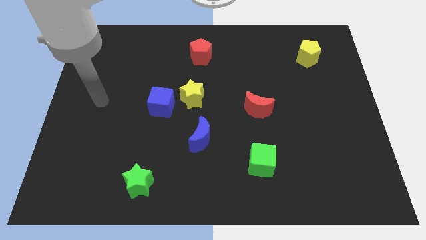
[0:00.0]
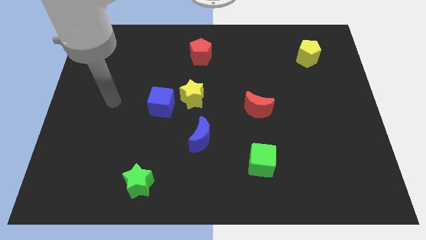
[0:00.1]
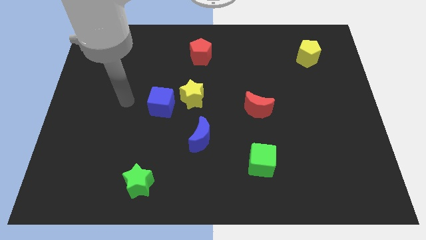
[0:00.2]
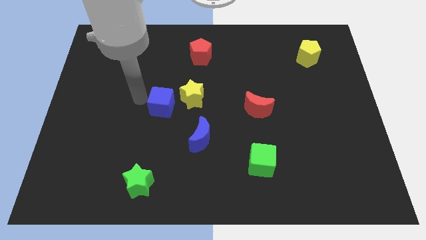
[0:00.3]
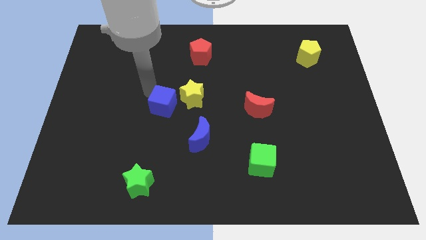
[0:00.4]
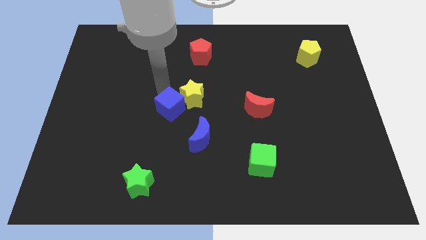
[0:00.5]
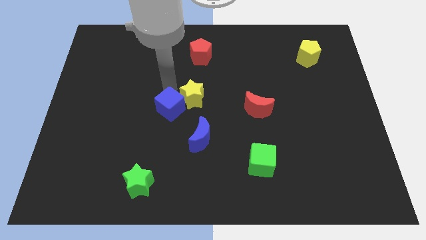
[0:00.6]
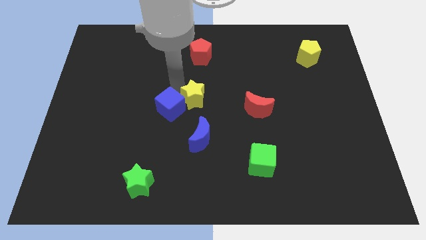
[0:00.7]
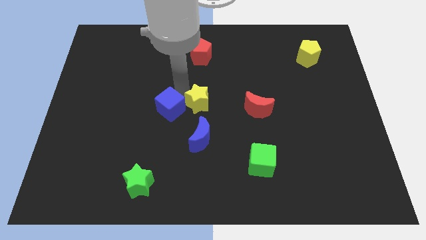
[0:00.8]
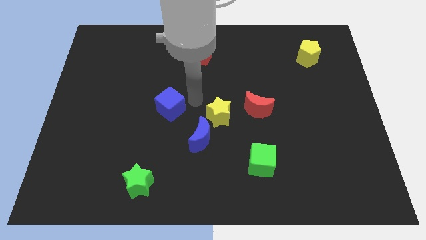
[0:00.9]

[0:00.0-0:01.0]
move the blue cube away from the yellow star

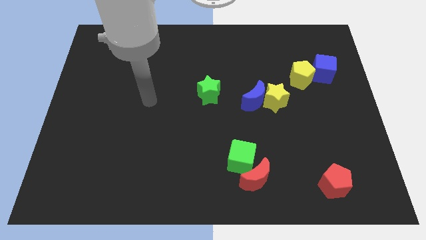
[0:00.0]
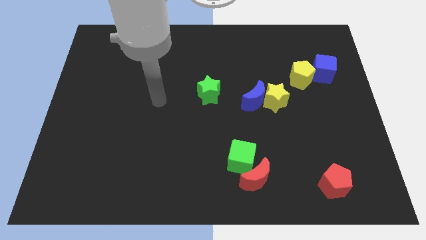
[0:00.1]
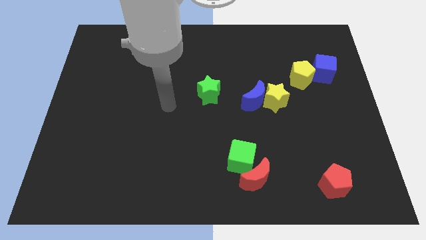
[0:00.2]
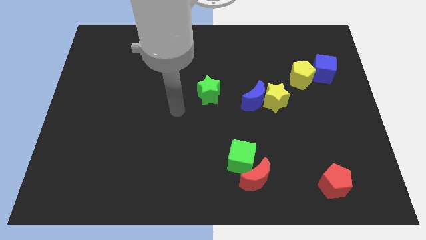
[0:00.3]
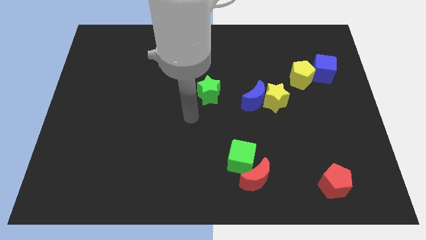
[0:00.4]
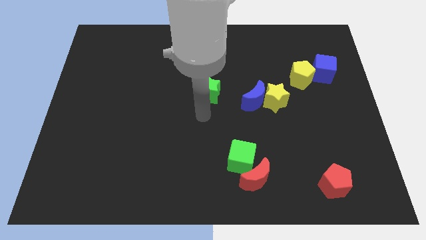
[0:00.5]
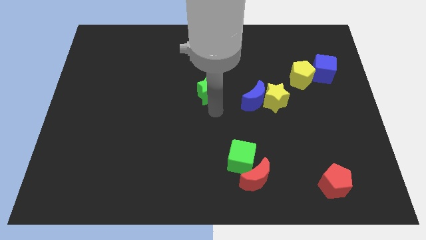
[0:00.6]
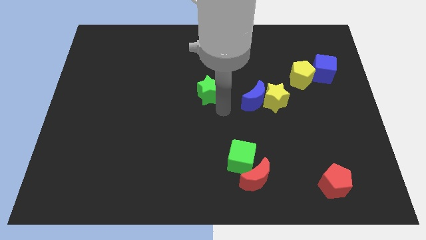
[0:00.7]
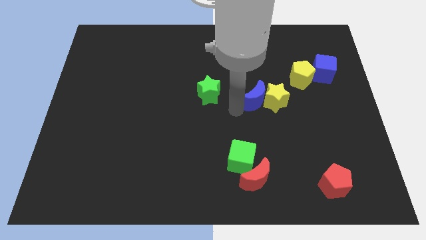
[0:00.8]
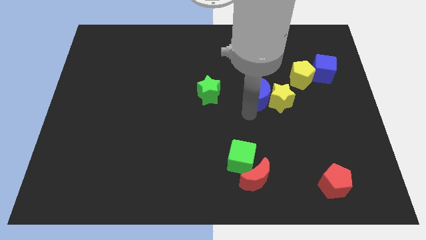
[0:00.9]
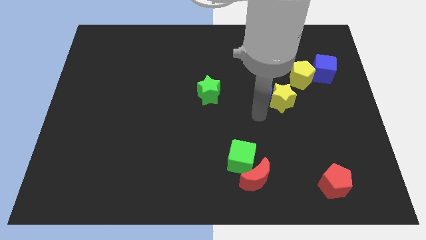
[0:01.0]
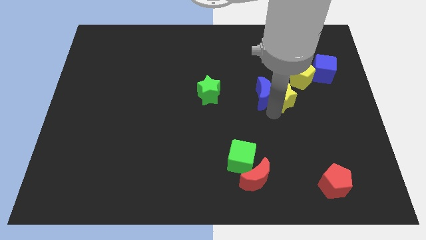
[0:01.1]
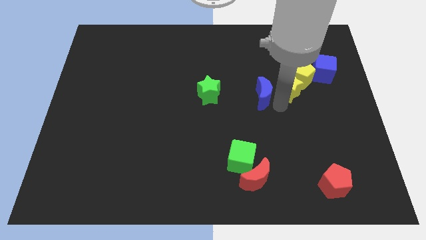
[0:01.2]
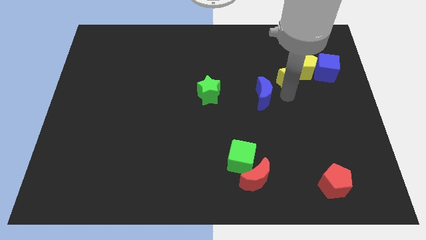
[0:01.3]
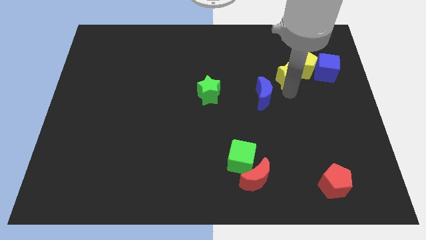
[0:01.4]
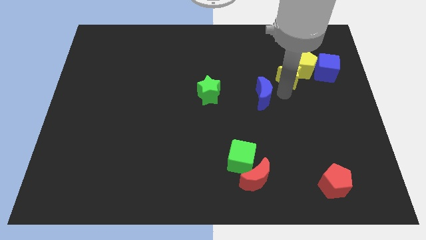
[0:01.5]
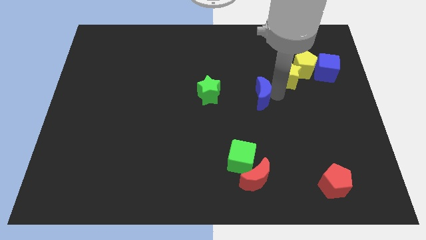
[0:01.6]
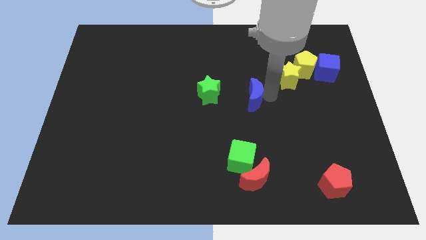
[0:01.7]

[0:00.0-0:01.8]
pull the blue moon apart from the yellow star

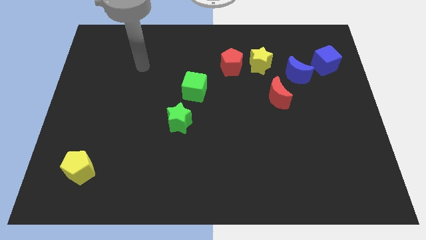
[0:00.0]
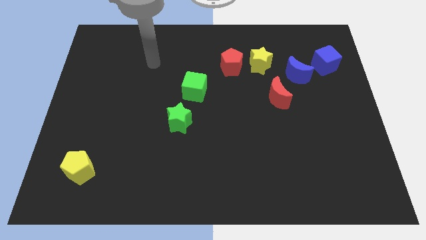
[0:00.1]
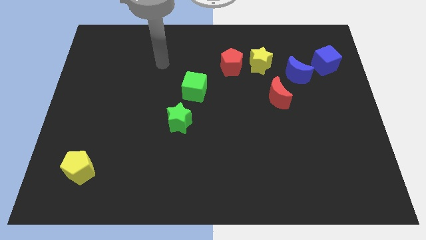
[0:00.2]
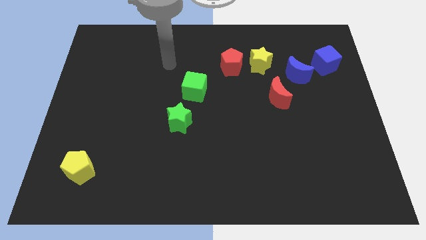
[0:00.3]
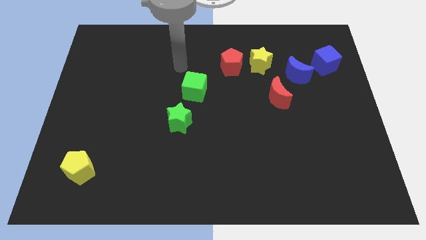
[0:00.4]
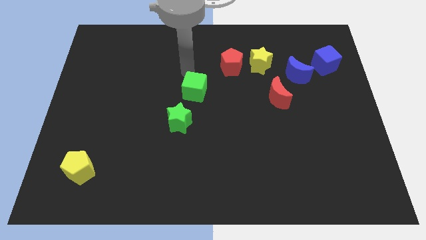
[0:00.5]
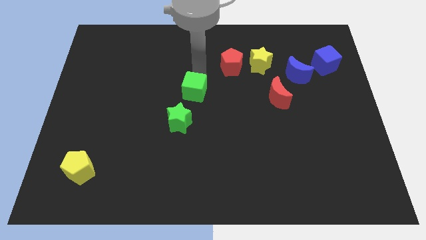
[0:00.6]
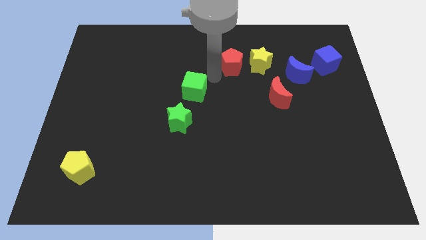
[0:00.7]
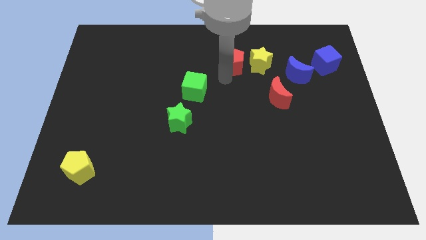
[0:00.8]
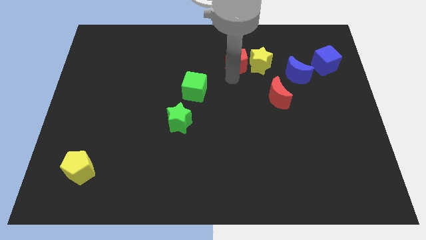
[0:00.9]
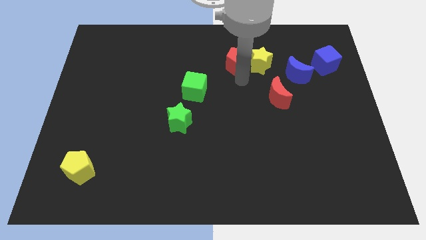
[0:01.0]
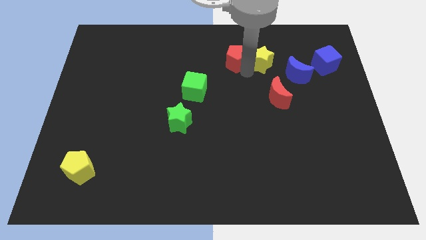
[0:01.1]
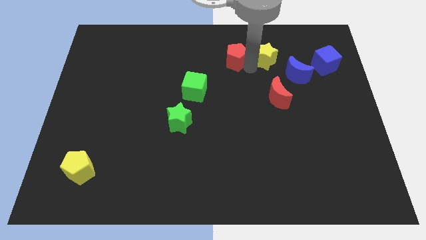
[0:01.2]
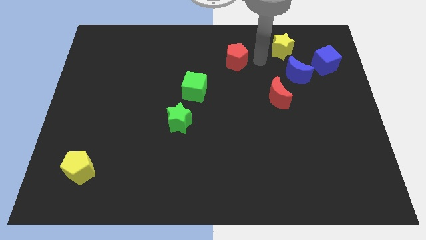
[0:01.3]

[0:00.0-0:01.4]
pull the red pentagon apart from the yellow star

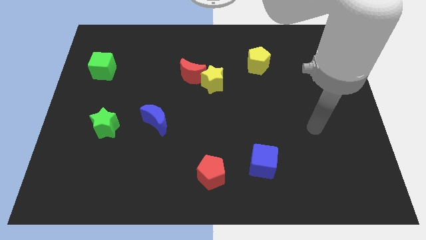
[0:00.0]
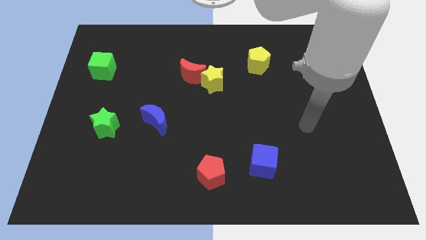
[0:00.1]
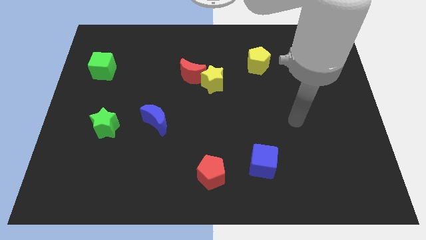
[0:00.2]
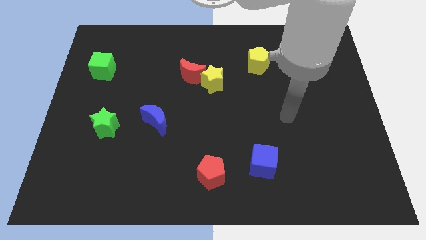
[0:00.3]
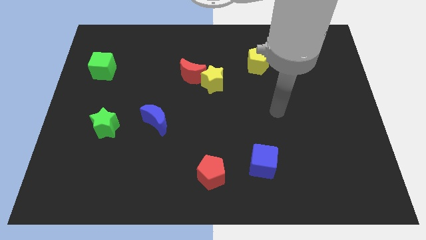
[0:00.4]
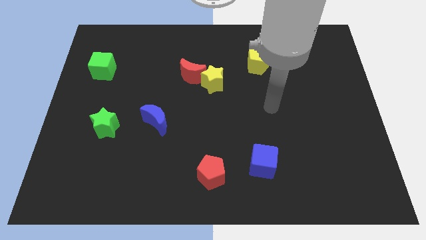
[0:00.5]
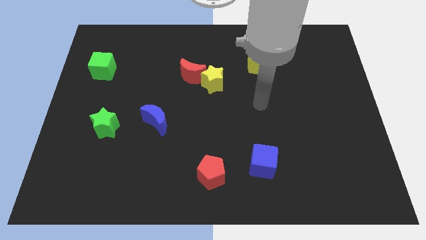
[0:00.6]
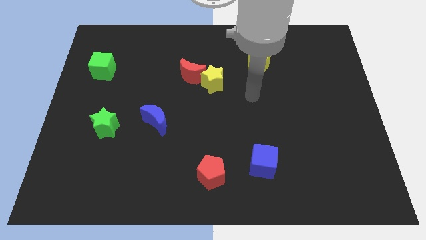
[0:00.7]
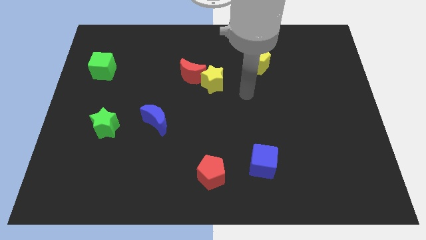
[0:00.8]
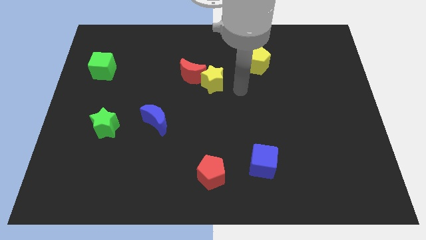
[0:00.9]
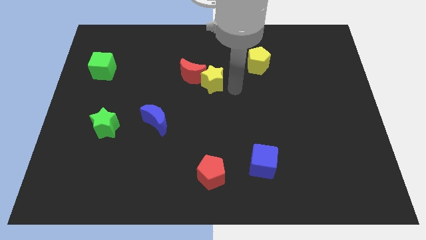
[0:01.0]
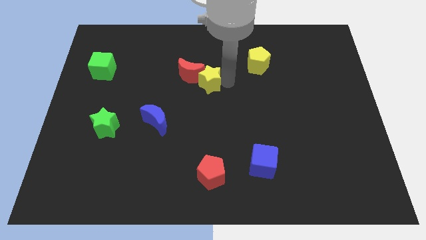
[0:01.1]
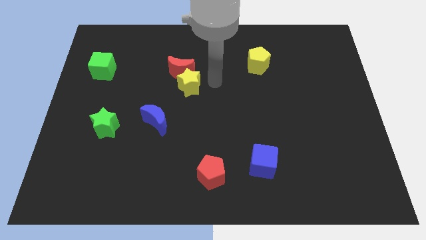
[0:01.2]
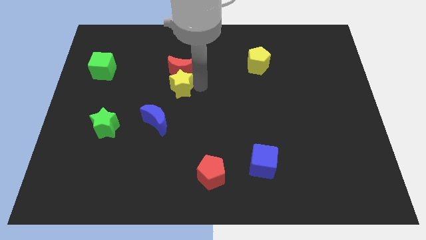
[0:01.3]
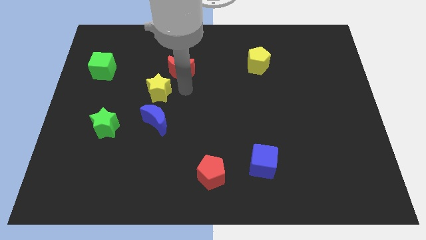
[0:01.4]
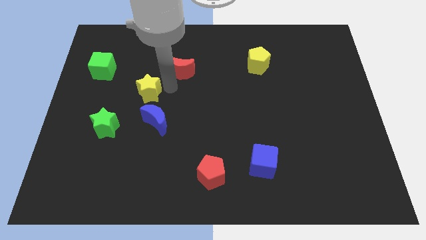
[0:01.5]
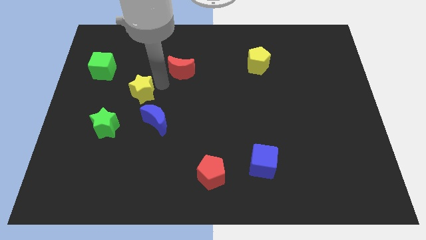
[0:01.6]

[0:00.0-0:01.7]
pull the red moon apart from the yellow star

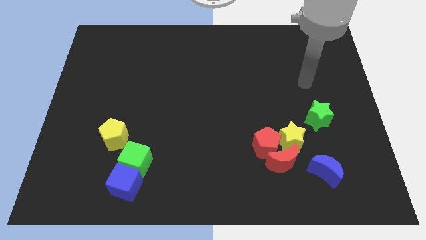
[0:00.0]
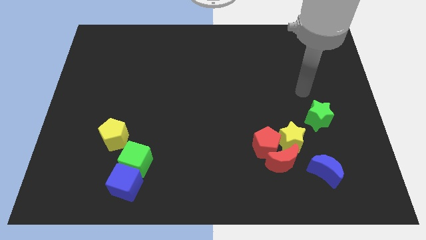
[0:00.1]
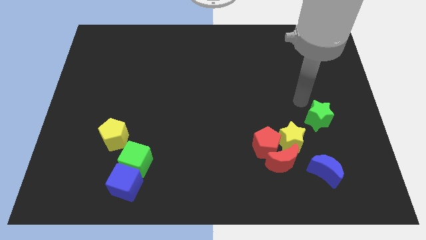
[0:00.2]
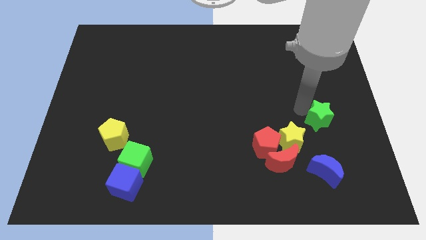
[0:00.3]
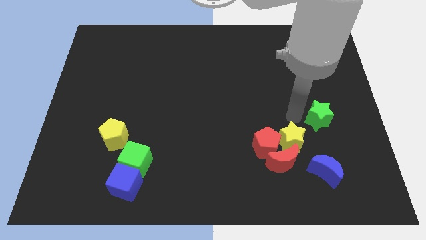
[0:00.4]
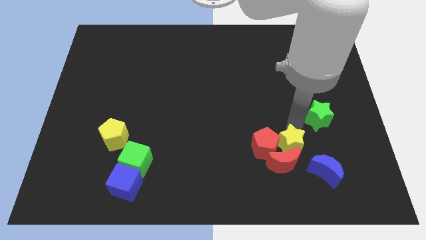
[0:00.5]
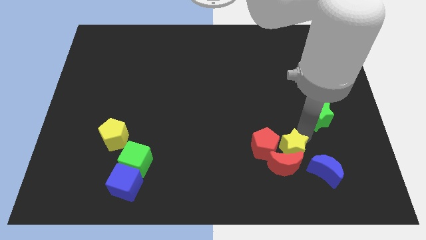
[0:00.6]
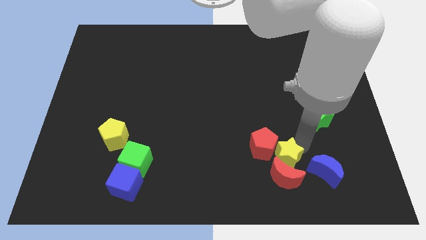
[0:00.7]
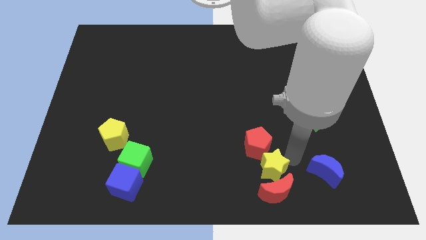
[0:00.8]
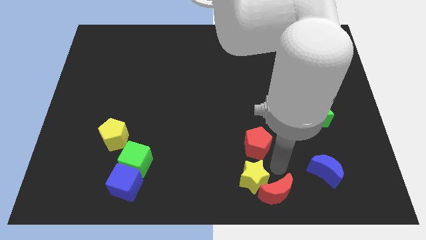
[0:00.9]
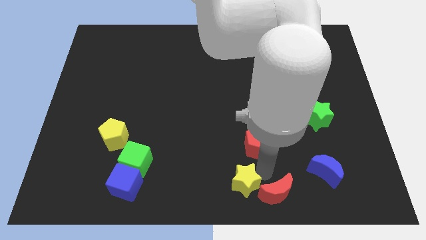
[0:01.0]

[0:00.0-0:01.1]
move the red pentagon away from the red moon and yellow star

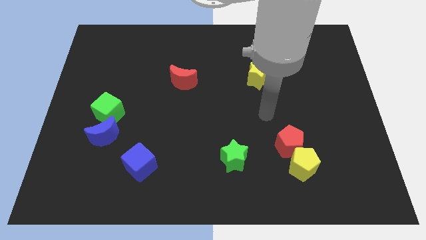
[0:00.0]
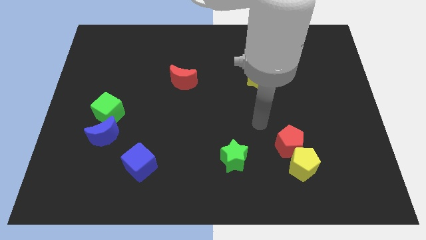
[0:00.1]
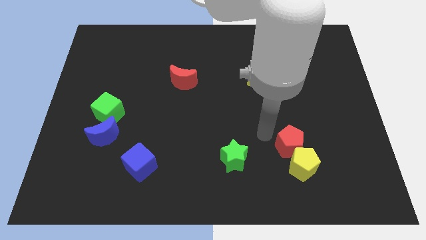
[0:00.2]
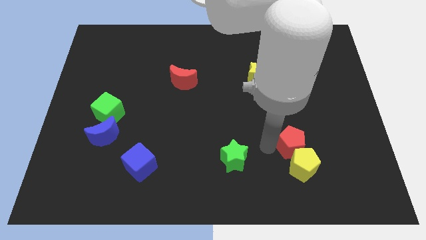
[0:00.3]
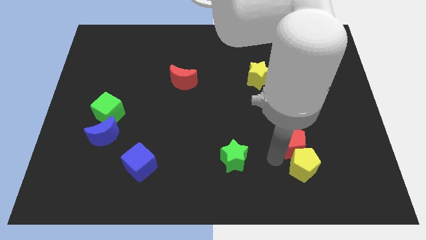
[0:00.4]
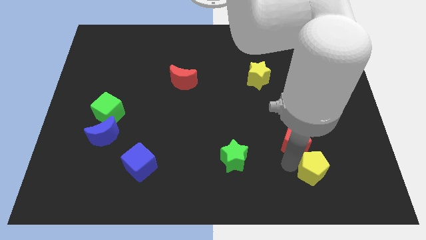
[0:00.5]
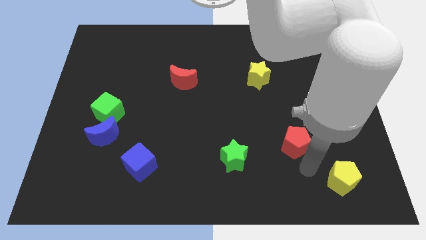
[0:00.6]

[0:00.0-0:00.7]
separate the red pentagon from the yellow pentagon

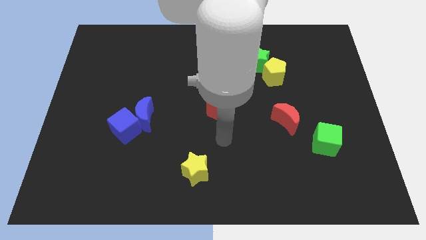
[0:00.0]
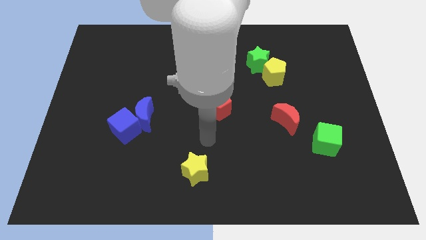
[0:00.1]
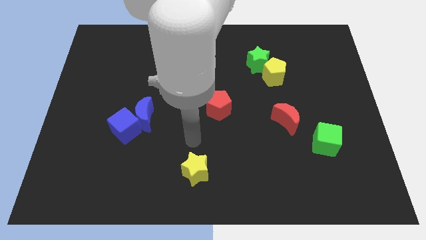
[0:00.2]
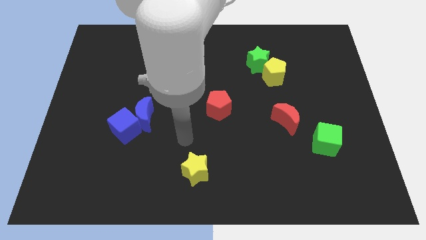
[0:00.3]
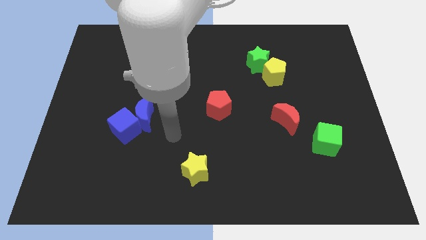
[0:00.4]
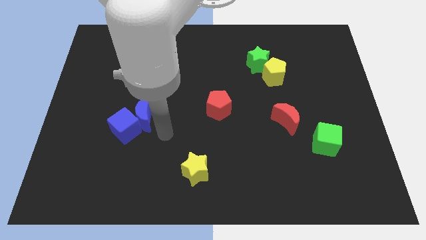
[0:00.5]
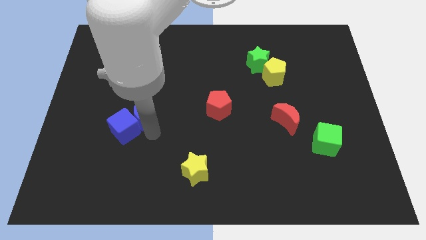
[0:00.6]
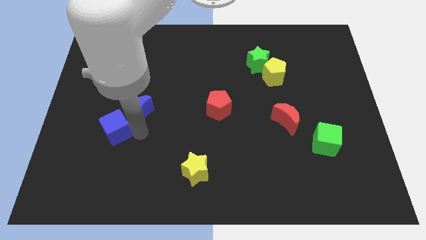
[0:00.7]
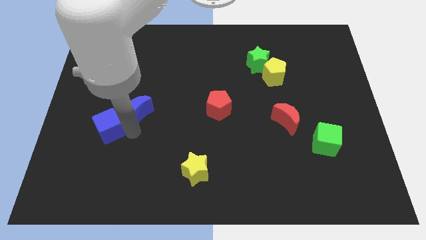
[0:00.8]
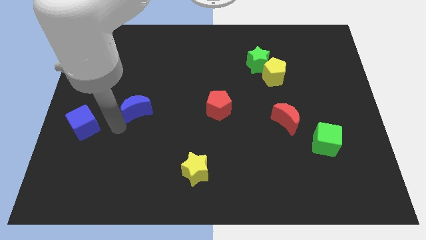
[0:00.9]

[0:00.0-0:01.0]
pull the blue moon apart from the blue cube

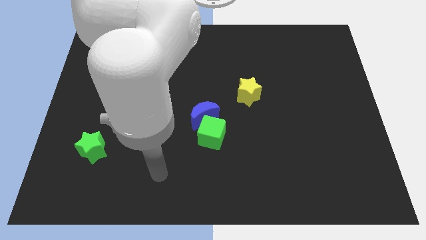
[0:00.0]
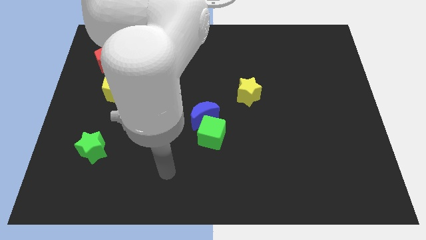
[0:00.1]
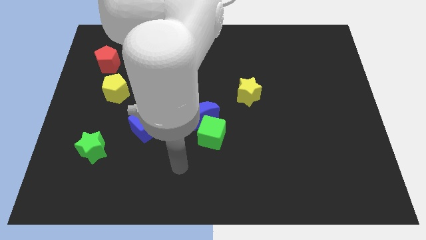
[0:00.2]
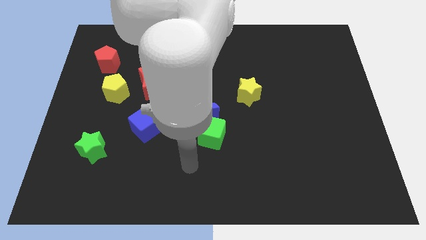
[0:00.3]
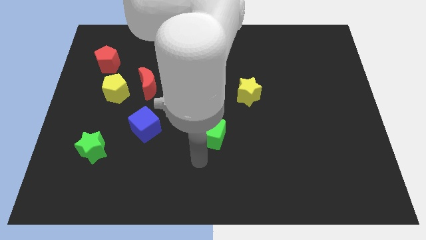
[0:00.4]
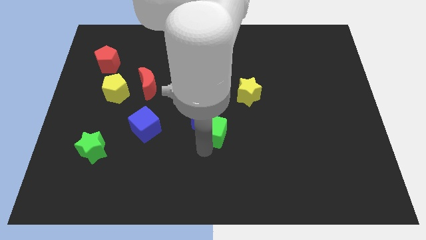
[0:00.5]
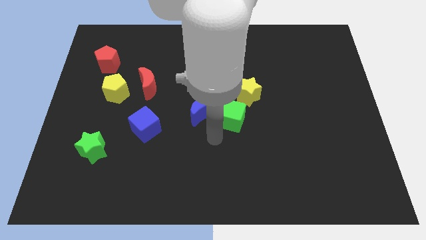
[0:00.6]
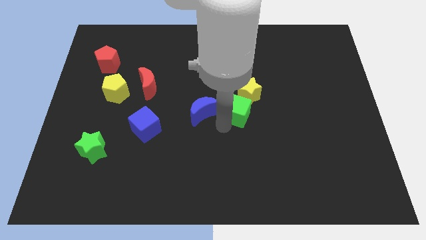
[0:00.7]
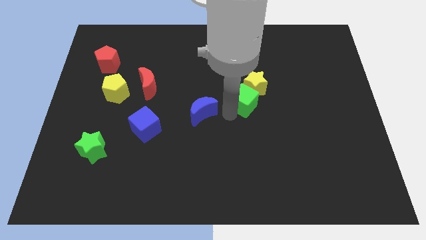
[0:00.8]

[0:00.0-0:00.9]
pull the blue moon apart from the green cube
